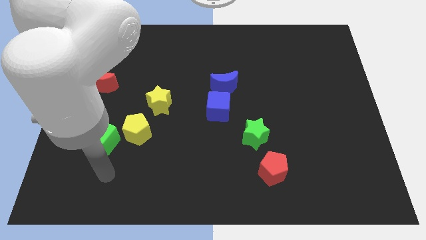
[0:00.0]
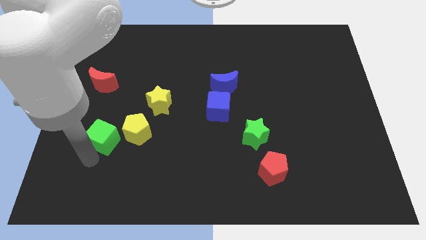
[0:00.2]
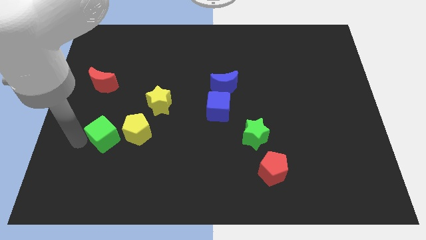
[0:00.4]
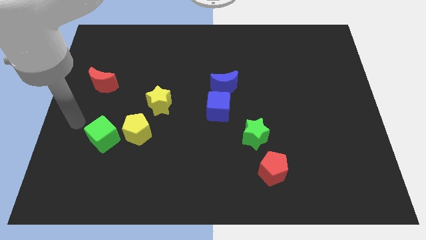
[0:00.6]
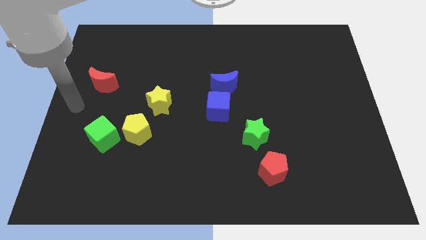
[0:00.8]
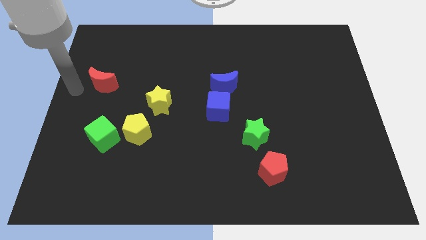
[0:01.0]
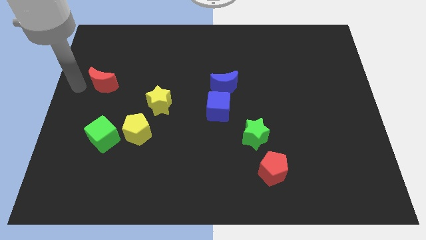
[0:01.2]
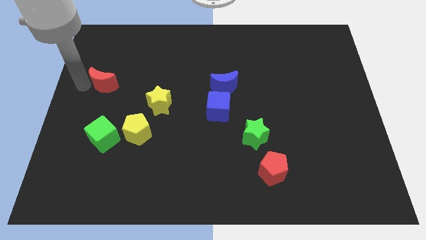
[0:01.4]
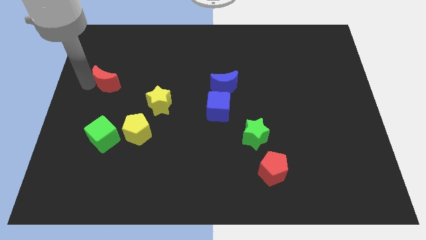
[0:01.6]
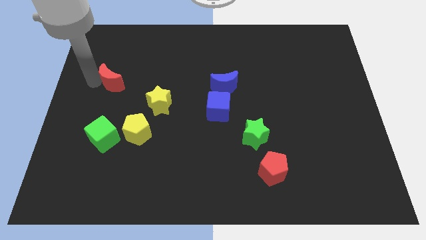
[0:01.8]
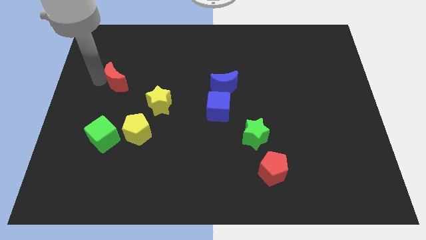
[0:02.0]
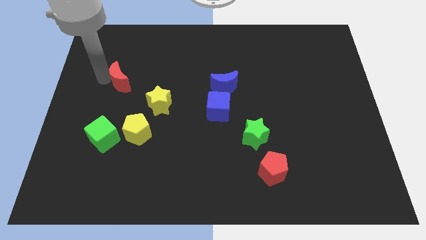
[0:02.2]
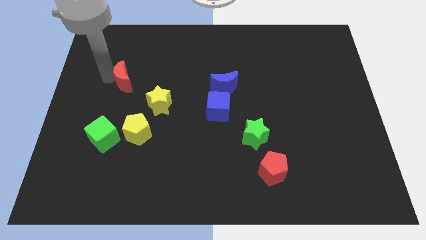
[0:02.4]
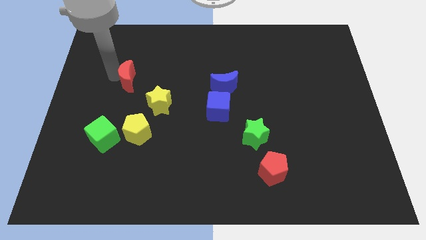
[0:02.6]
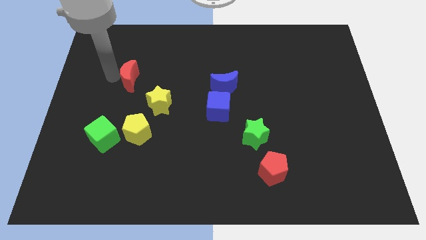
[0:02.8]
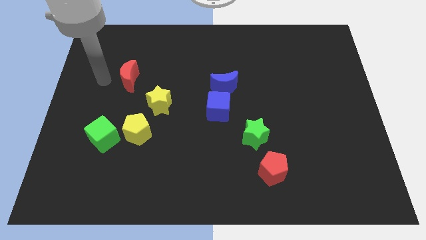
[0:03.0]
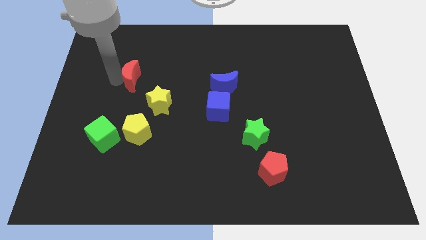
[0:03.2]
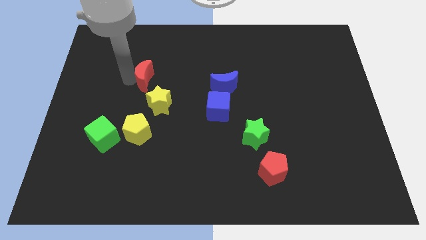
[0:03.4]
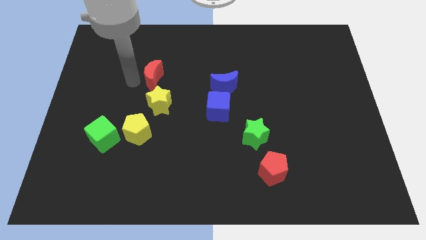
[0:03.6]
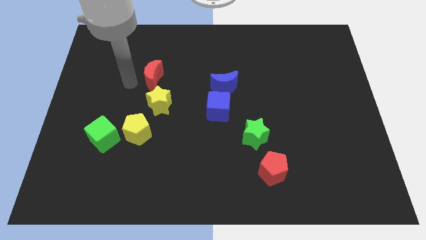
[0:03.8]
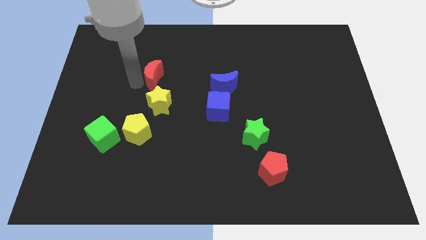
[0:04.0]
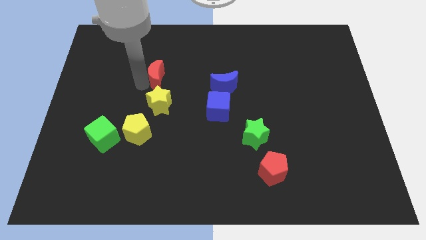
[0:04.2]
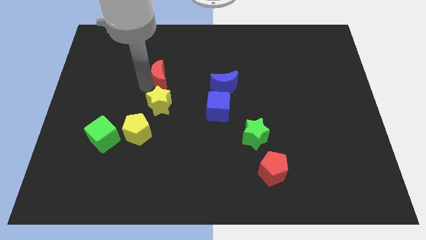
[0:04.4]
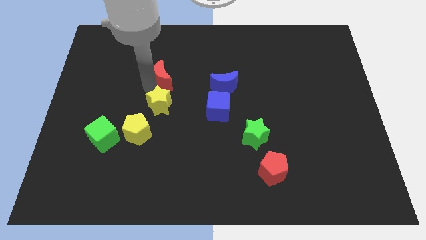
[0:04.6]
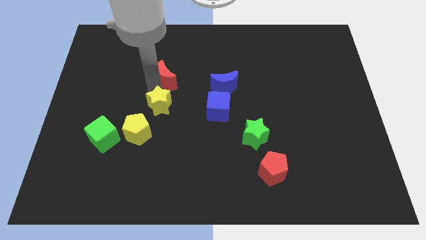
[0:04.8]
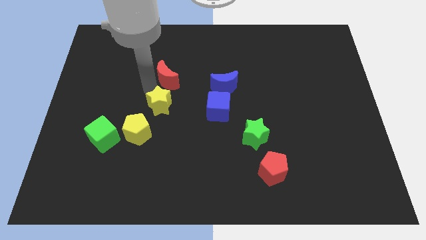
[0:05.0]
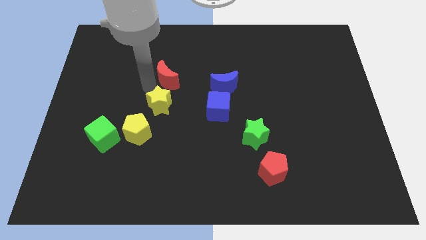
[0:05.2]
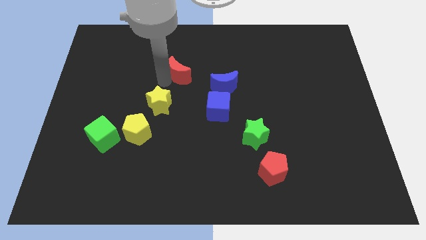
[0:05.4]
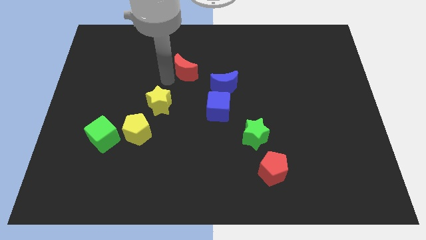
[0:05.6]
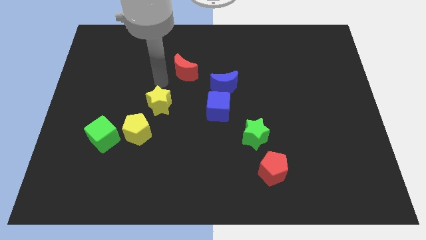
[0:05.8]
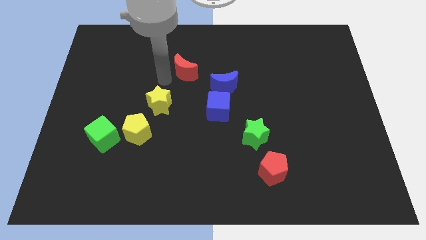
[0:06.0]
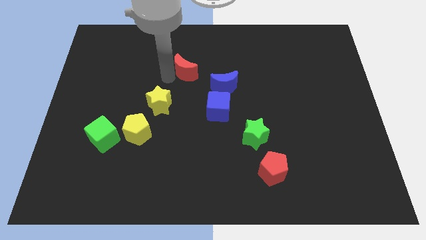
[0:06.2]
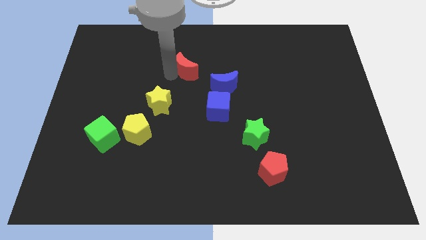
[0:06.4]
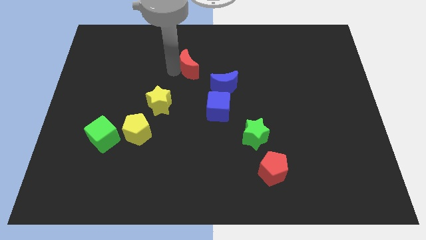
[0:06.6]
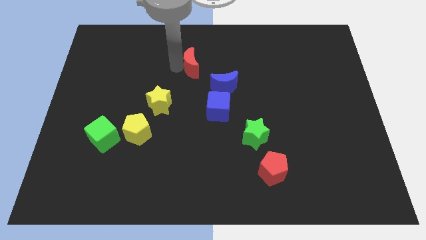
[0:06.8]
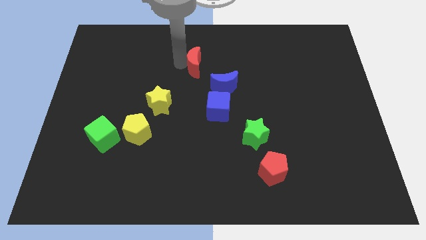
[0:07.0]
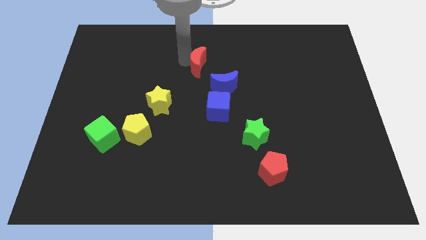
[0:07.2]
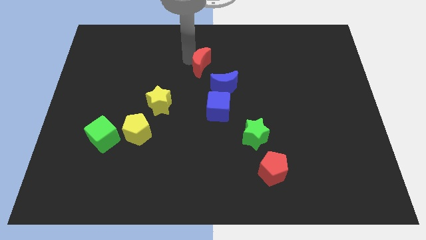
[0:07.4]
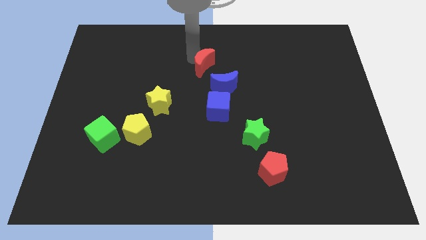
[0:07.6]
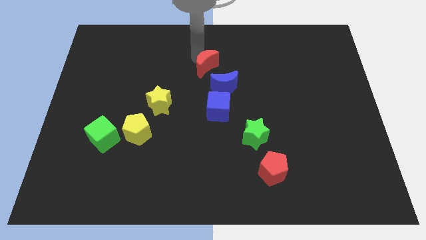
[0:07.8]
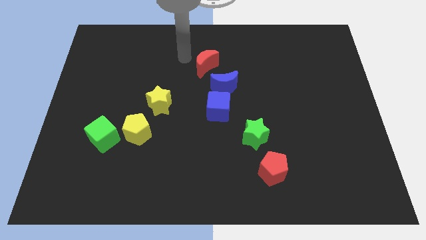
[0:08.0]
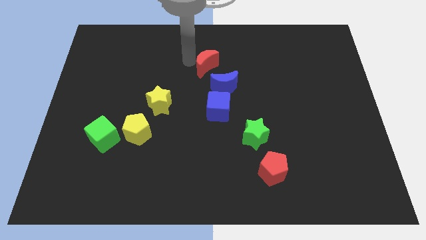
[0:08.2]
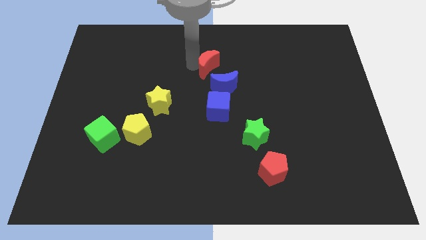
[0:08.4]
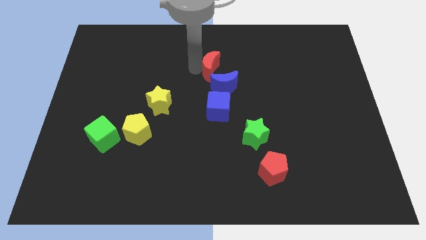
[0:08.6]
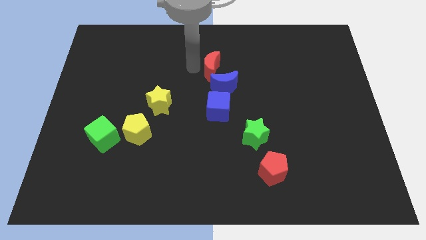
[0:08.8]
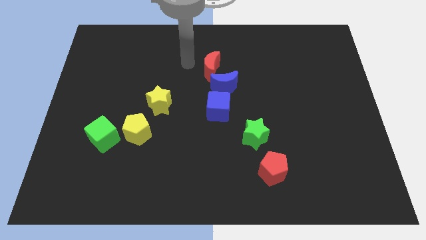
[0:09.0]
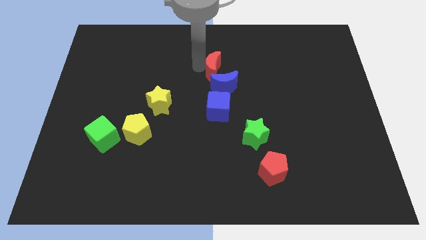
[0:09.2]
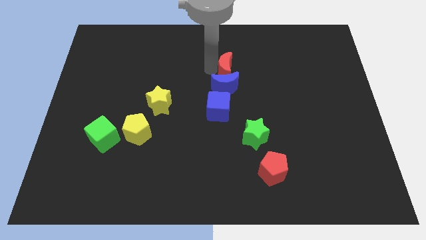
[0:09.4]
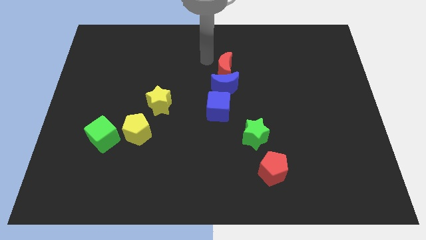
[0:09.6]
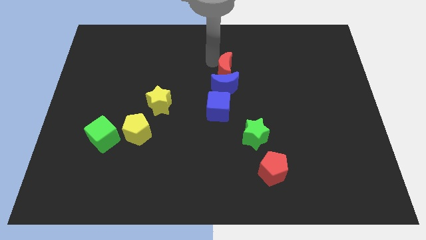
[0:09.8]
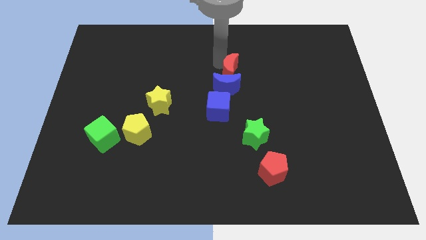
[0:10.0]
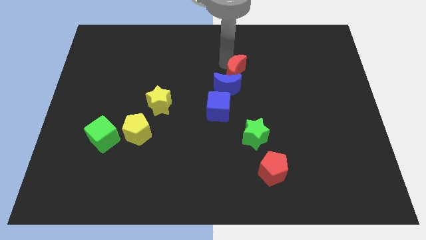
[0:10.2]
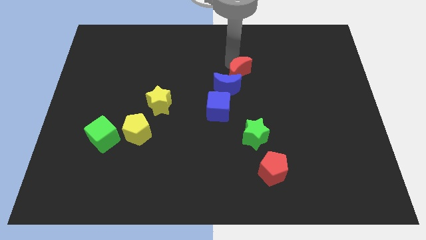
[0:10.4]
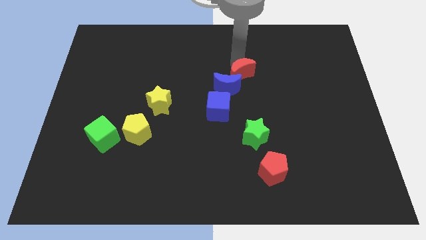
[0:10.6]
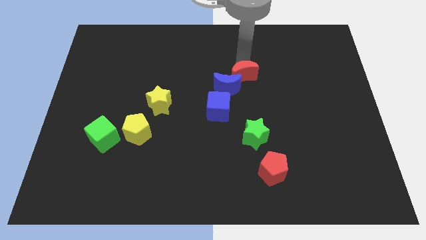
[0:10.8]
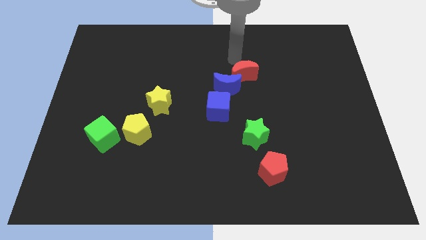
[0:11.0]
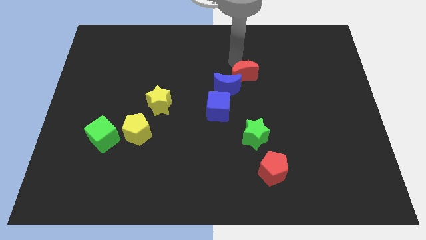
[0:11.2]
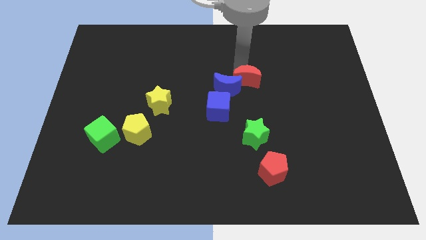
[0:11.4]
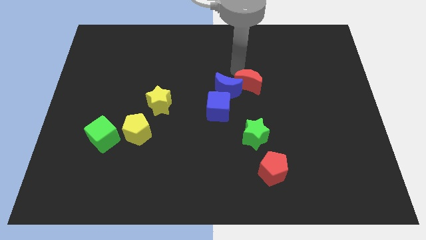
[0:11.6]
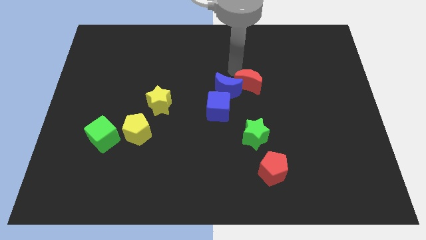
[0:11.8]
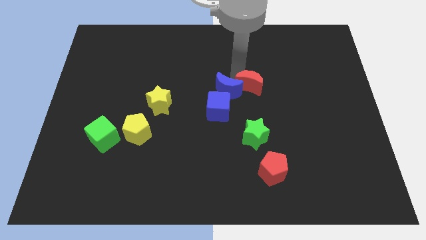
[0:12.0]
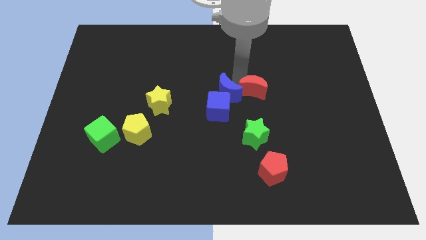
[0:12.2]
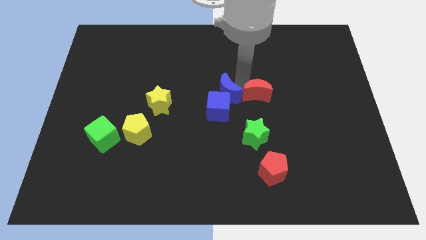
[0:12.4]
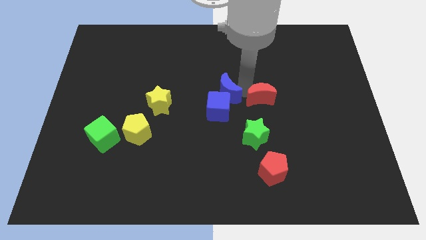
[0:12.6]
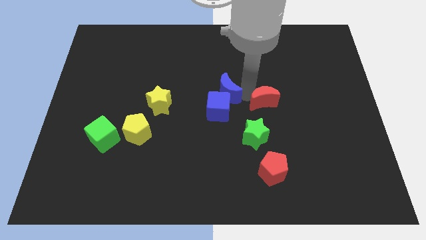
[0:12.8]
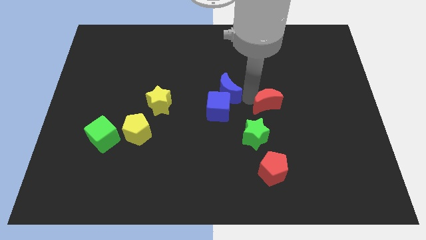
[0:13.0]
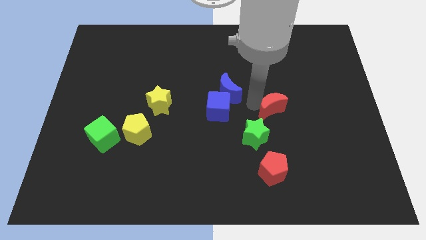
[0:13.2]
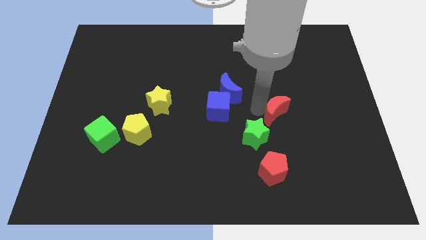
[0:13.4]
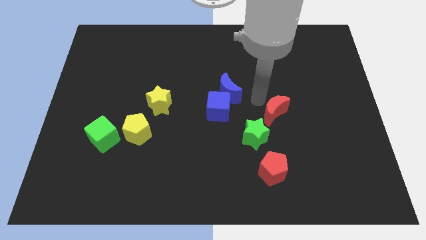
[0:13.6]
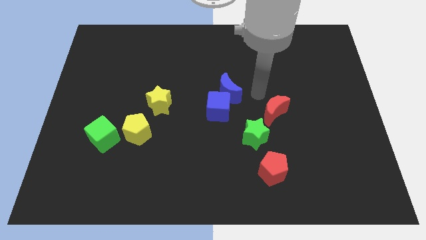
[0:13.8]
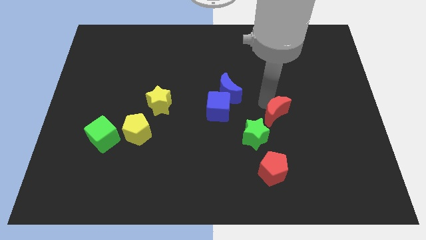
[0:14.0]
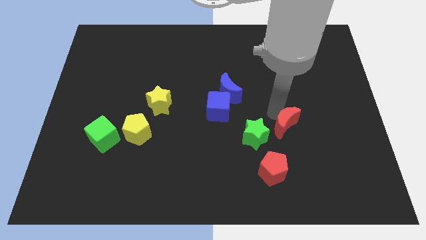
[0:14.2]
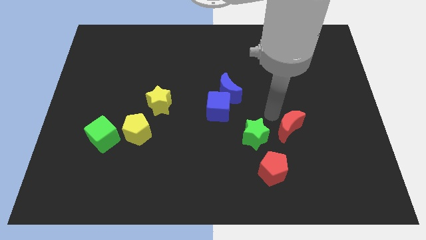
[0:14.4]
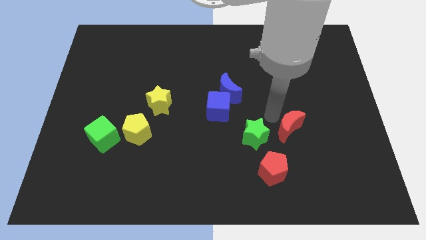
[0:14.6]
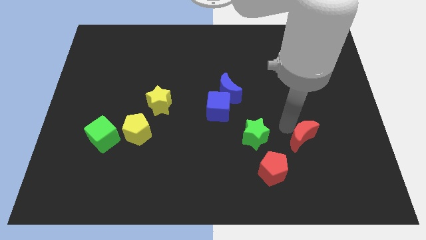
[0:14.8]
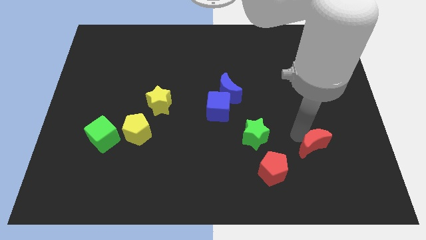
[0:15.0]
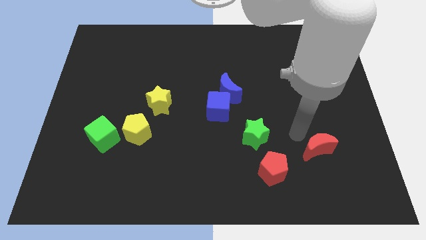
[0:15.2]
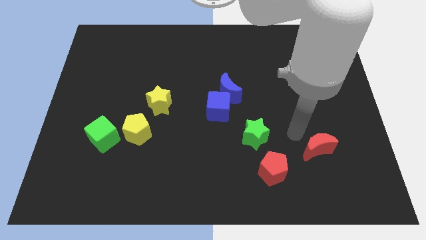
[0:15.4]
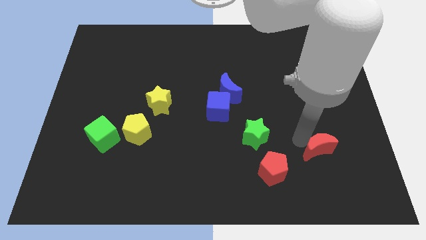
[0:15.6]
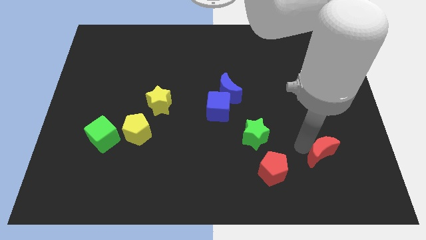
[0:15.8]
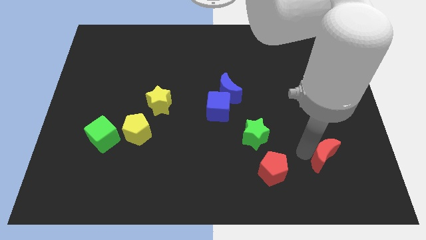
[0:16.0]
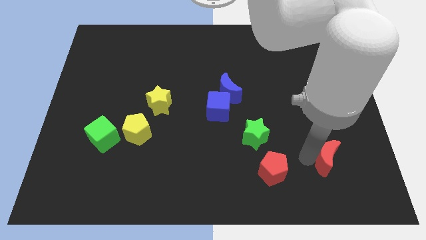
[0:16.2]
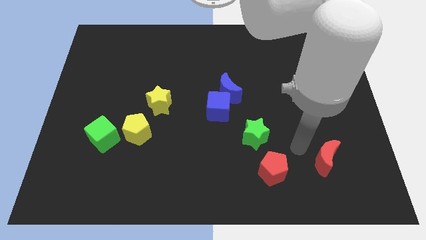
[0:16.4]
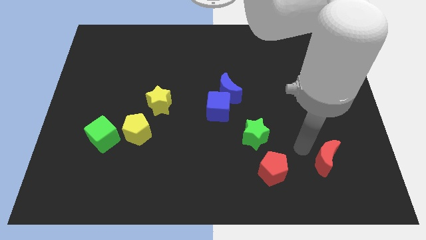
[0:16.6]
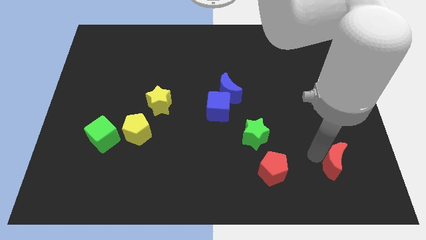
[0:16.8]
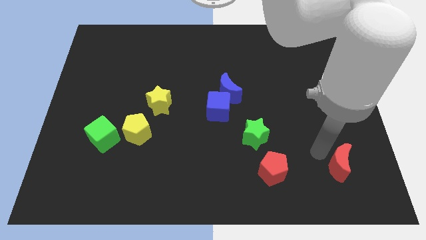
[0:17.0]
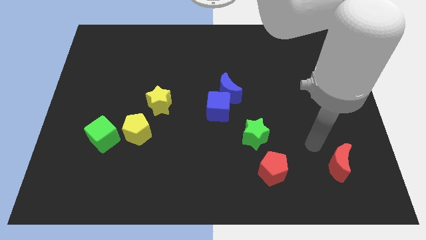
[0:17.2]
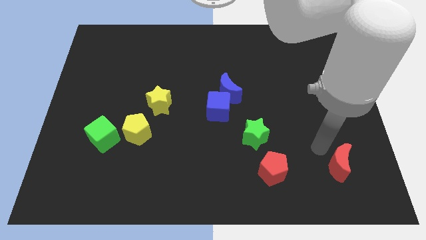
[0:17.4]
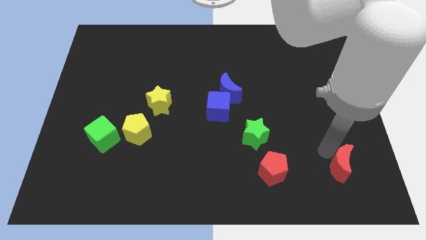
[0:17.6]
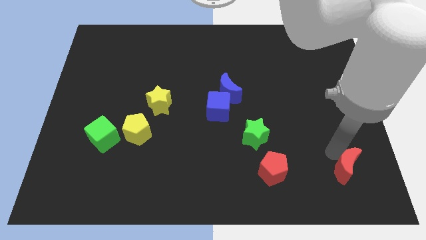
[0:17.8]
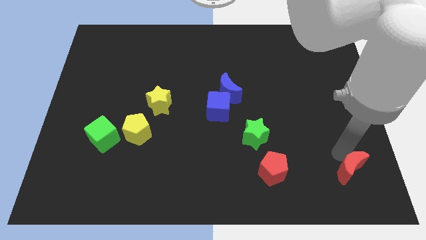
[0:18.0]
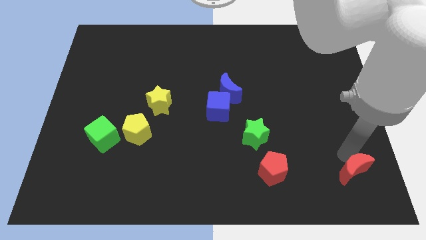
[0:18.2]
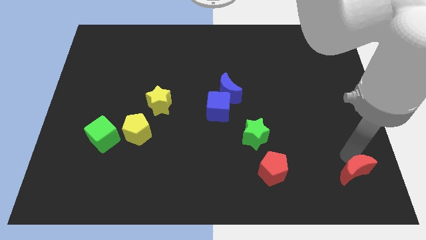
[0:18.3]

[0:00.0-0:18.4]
slide the red moon to the bottom right corner
